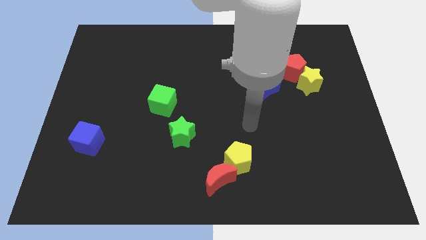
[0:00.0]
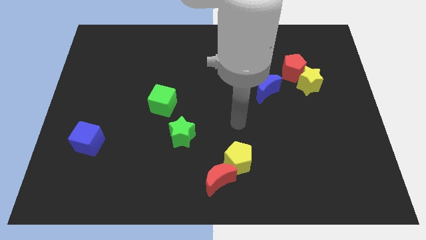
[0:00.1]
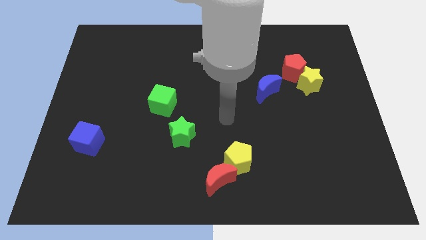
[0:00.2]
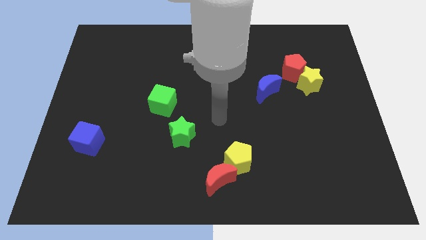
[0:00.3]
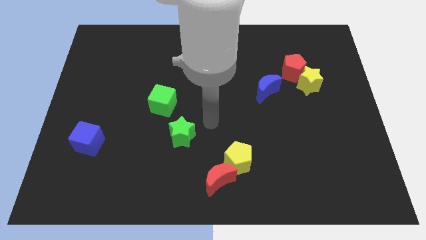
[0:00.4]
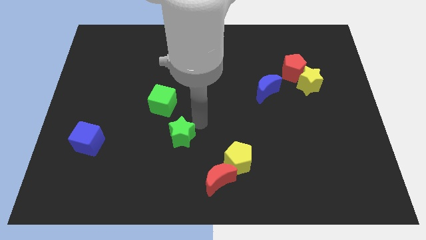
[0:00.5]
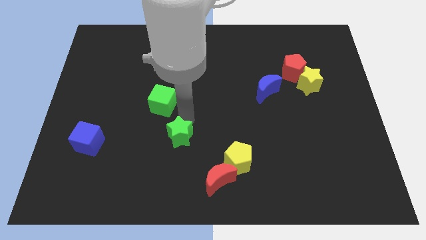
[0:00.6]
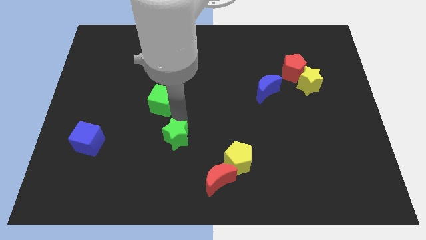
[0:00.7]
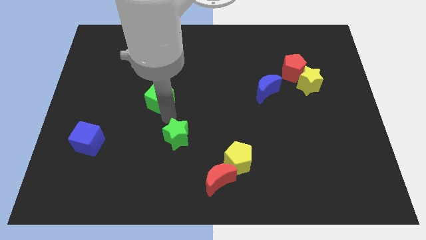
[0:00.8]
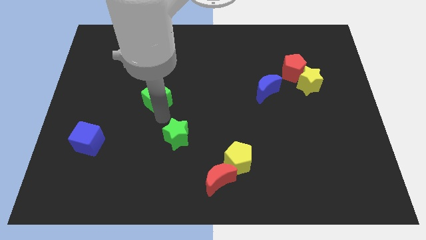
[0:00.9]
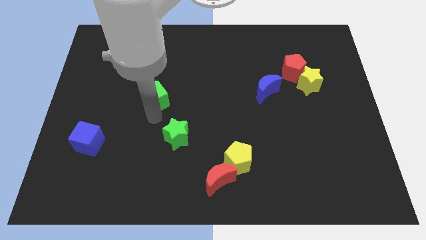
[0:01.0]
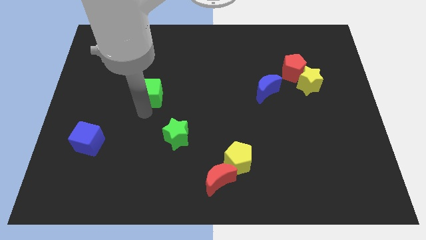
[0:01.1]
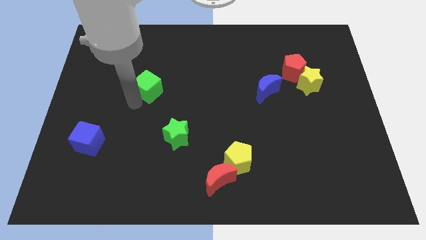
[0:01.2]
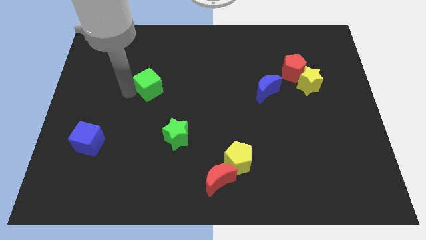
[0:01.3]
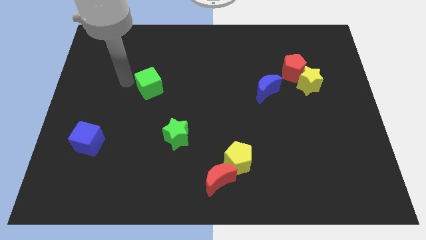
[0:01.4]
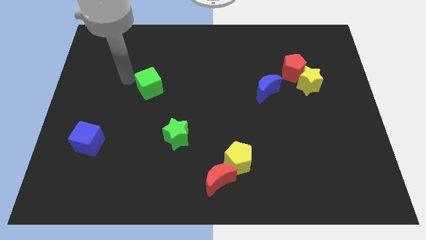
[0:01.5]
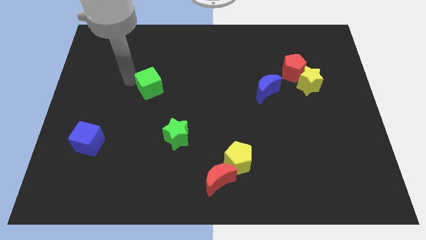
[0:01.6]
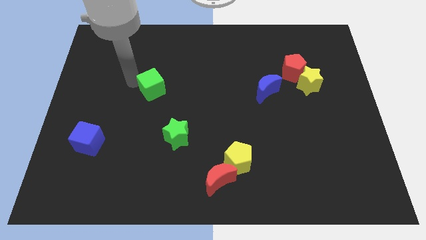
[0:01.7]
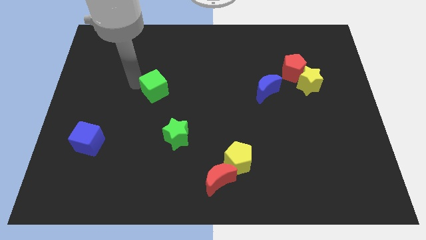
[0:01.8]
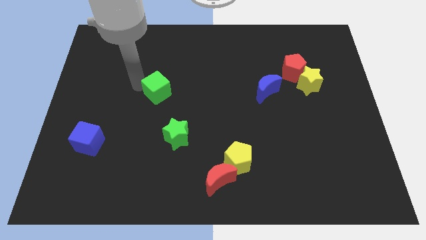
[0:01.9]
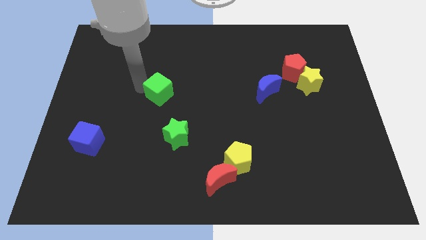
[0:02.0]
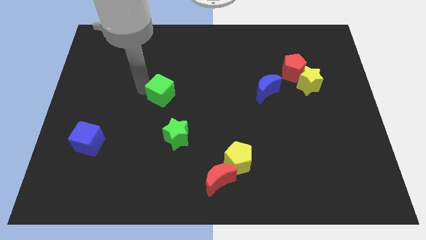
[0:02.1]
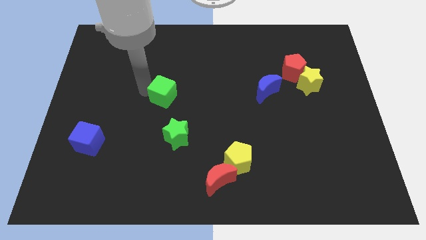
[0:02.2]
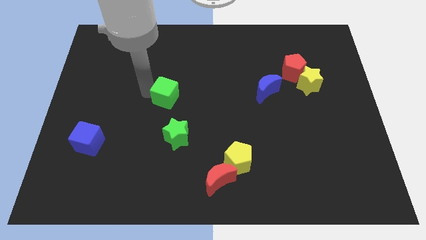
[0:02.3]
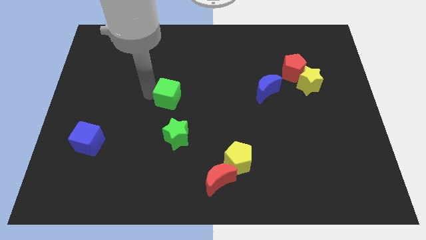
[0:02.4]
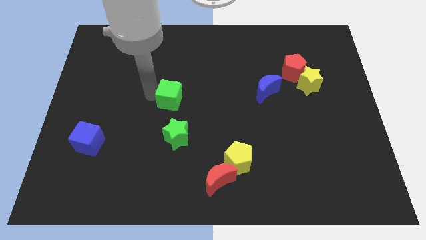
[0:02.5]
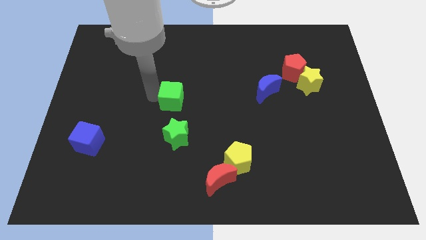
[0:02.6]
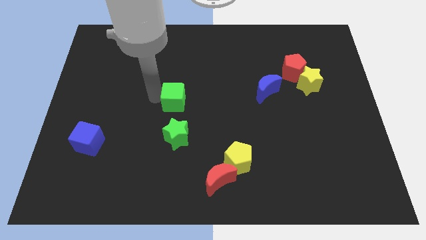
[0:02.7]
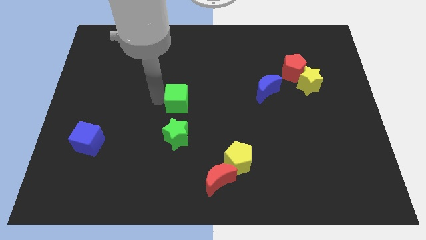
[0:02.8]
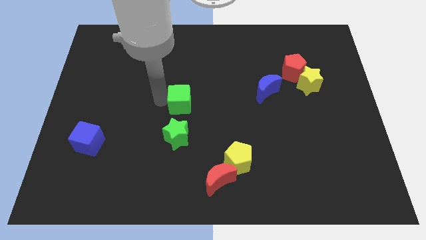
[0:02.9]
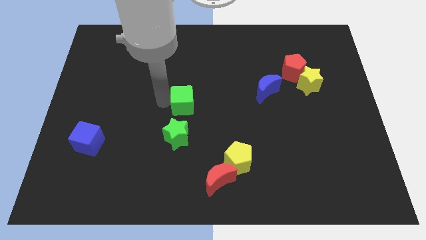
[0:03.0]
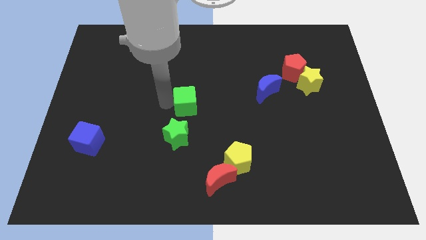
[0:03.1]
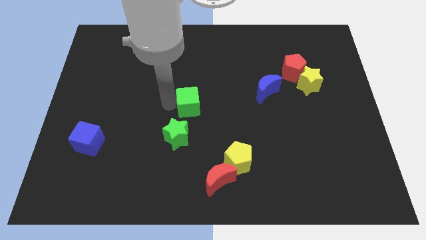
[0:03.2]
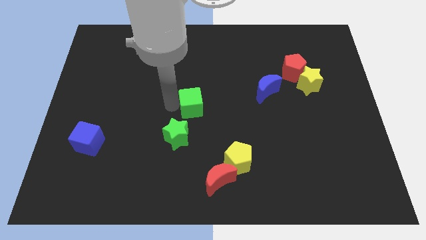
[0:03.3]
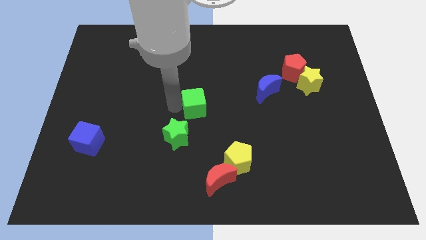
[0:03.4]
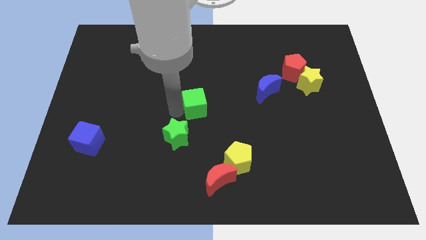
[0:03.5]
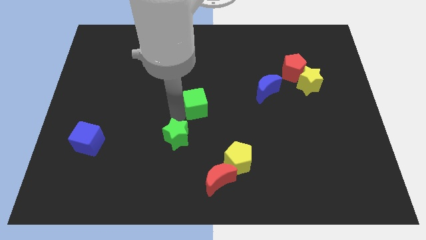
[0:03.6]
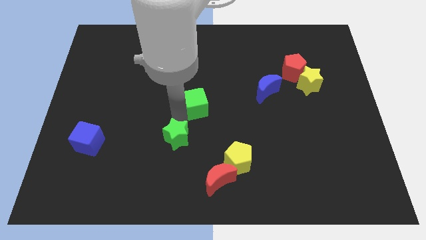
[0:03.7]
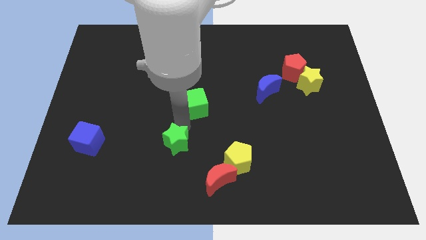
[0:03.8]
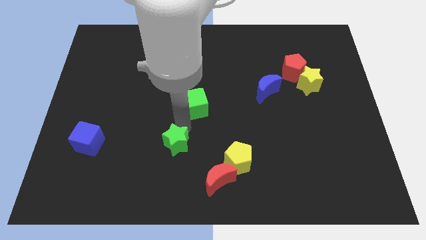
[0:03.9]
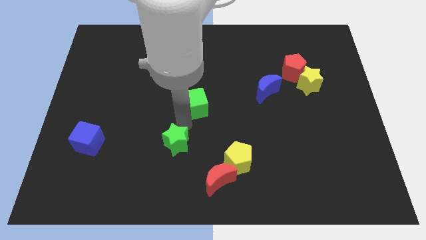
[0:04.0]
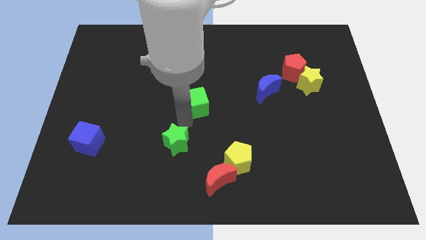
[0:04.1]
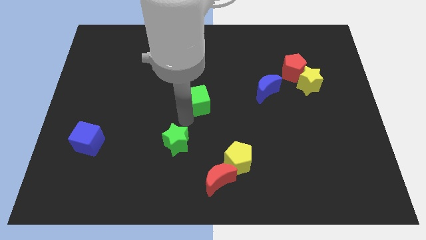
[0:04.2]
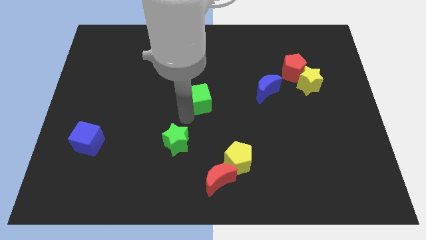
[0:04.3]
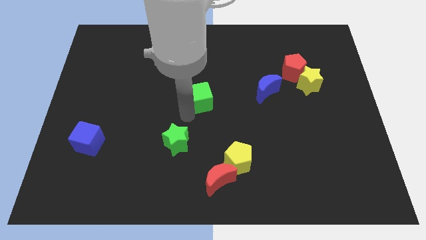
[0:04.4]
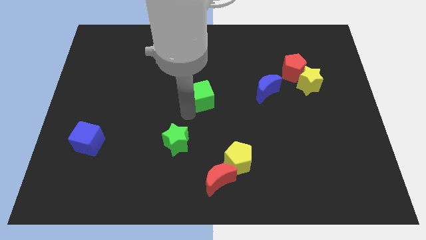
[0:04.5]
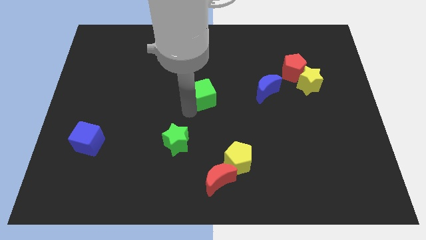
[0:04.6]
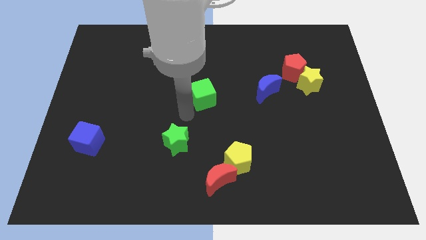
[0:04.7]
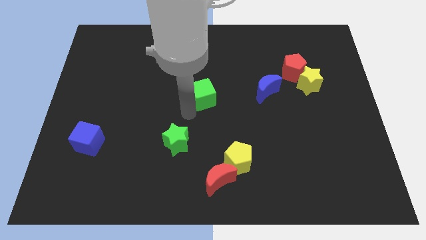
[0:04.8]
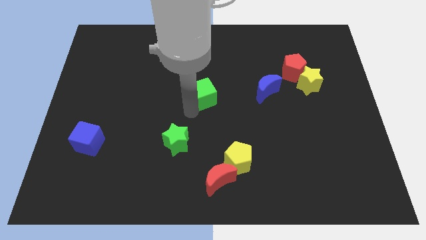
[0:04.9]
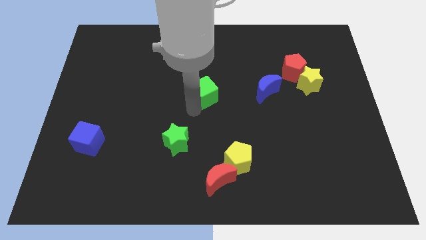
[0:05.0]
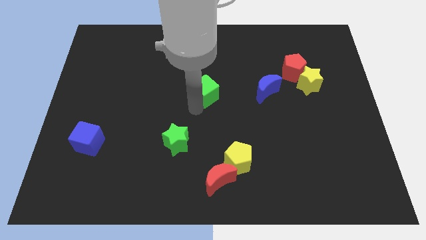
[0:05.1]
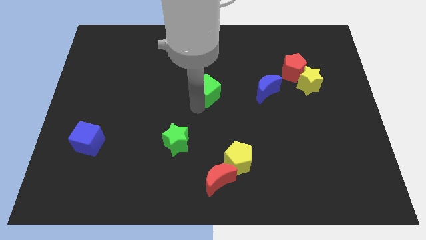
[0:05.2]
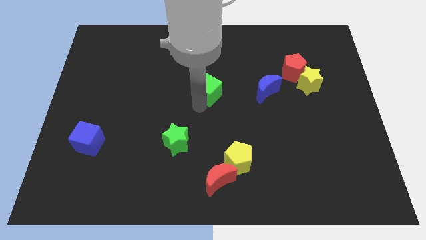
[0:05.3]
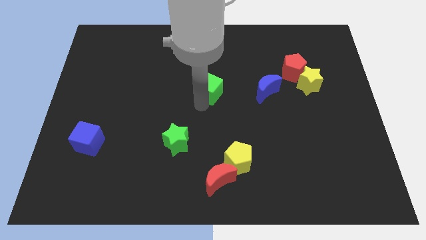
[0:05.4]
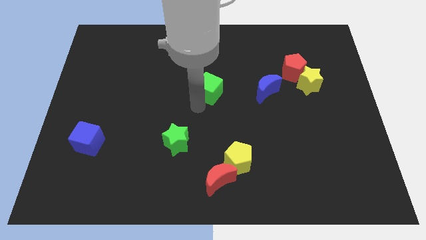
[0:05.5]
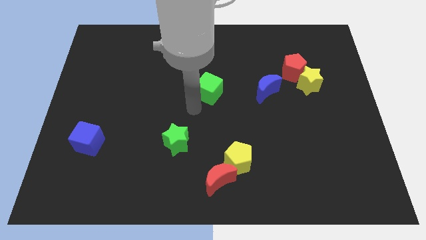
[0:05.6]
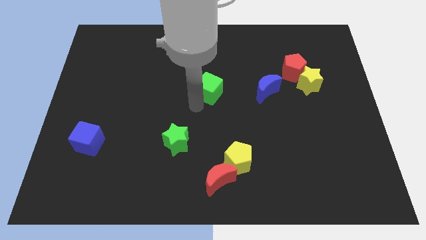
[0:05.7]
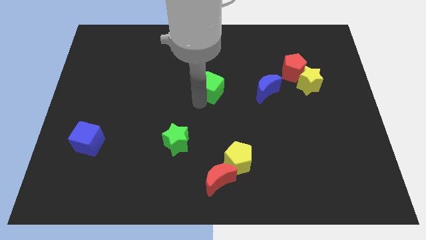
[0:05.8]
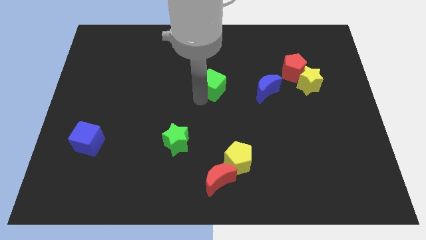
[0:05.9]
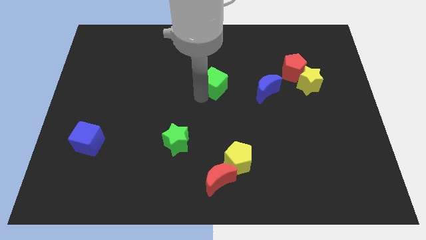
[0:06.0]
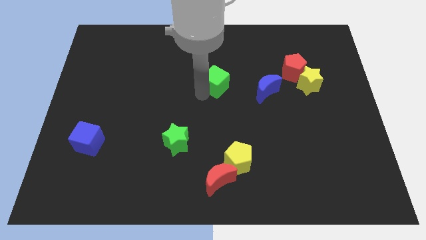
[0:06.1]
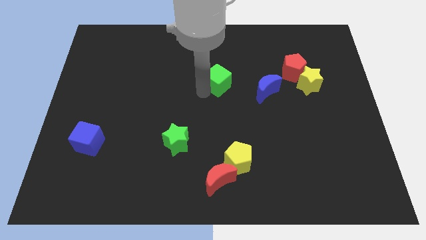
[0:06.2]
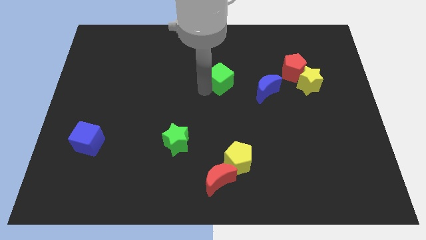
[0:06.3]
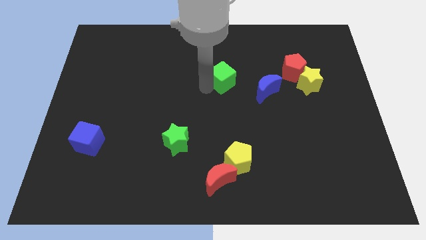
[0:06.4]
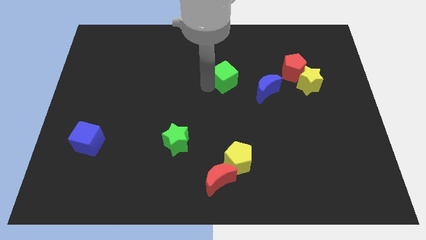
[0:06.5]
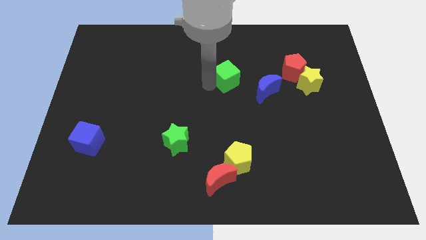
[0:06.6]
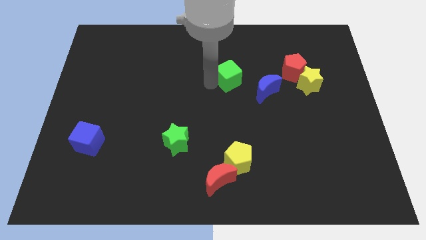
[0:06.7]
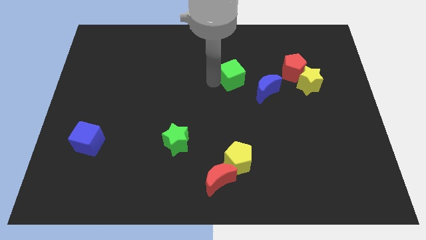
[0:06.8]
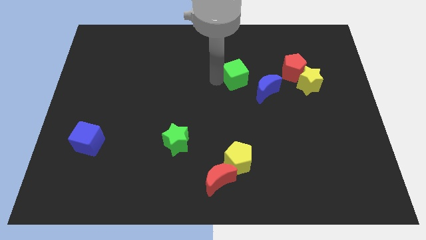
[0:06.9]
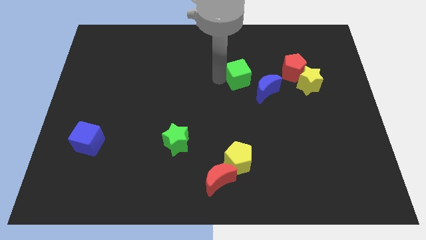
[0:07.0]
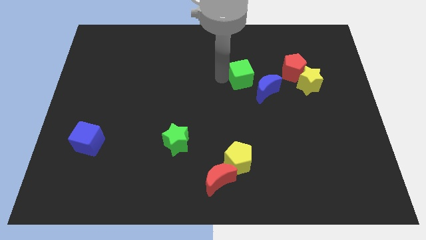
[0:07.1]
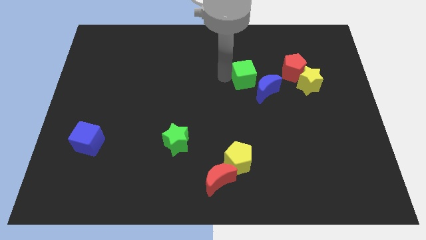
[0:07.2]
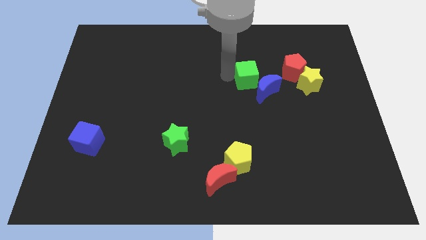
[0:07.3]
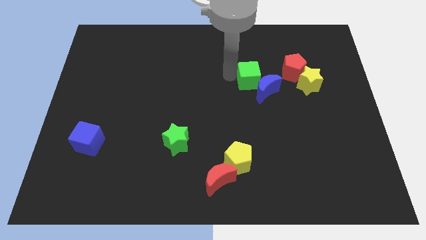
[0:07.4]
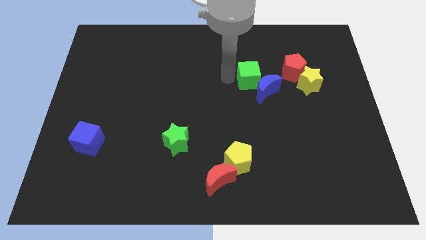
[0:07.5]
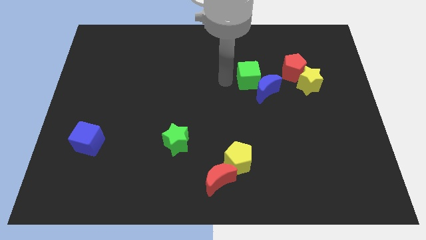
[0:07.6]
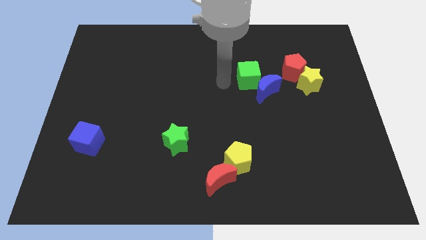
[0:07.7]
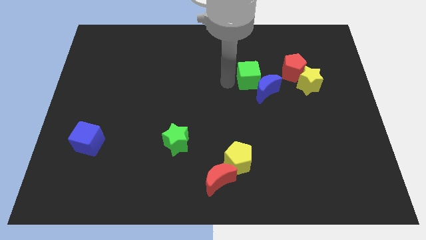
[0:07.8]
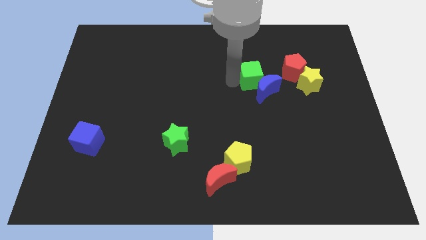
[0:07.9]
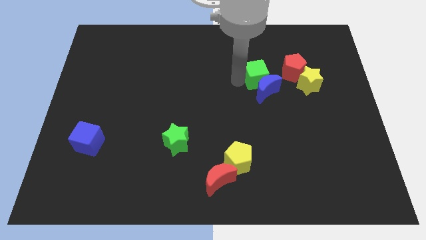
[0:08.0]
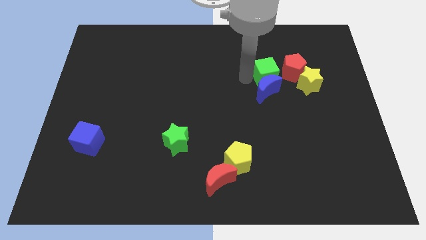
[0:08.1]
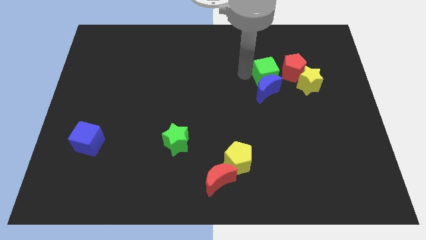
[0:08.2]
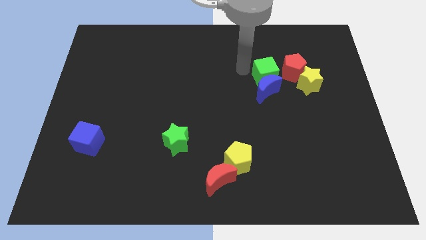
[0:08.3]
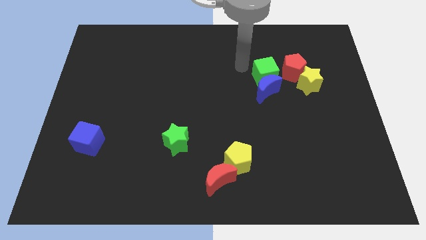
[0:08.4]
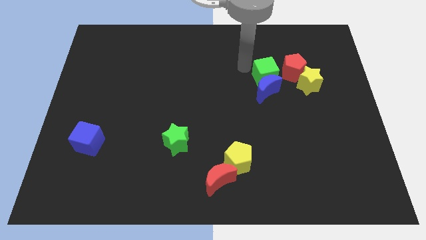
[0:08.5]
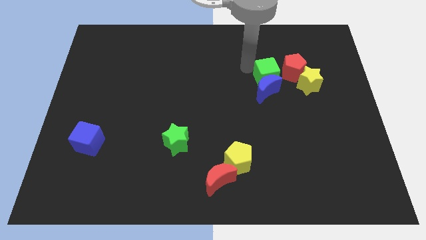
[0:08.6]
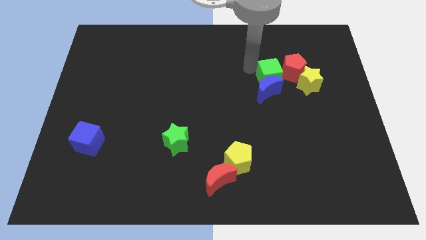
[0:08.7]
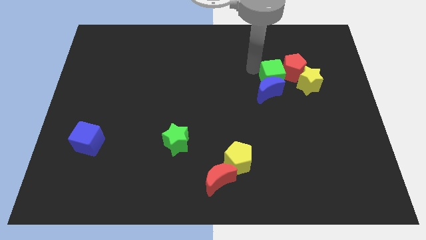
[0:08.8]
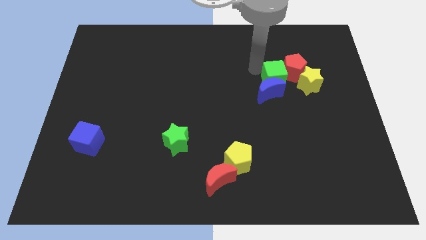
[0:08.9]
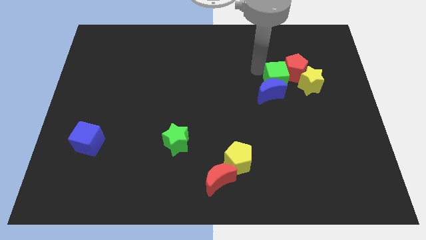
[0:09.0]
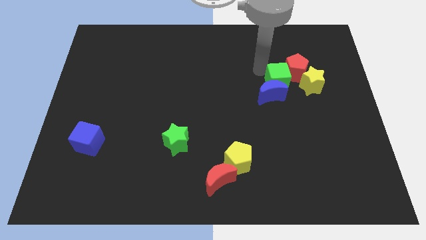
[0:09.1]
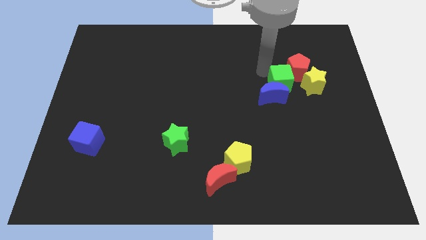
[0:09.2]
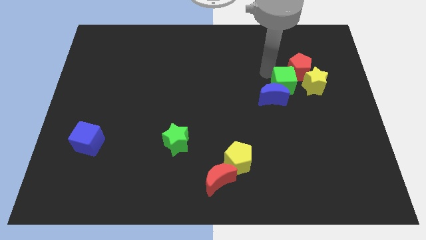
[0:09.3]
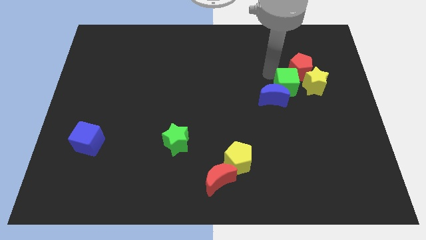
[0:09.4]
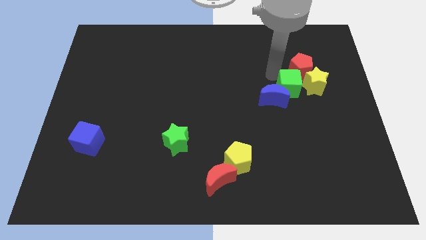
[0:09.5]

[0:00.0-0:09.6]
put the green cube to the yellow star
